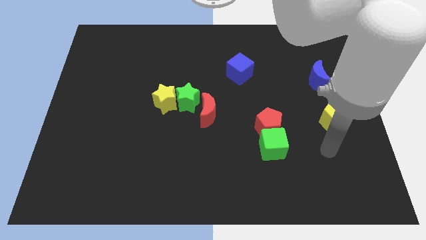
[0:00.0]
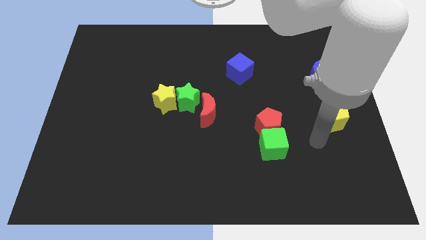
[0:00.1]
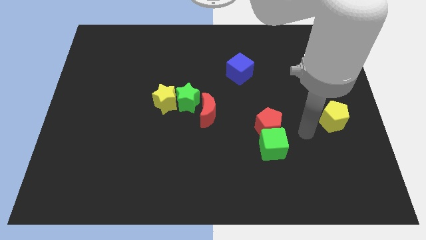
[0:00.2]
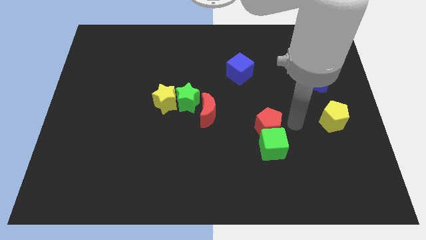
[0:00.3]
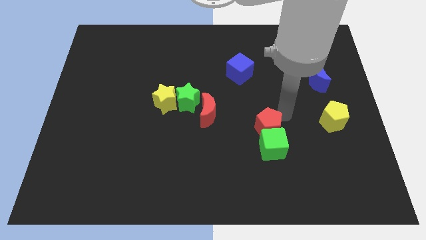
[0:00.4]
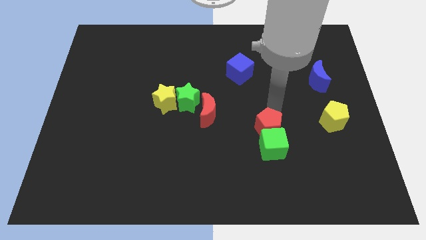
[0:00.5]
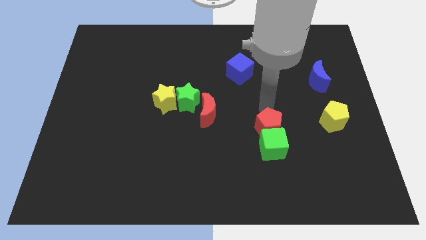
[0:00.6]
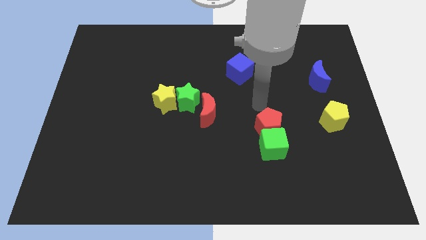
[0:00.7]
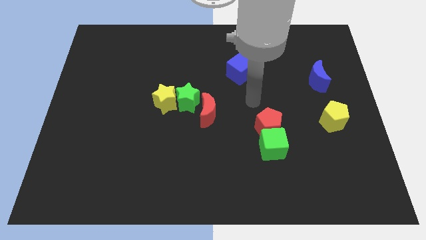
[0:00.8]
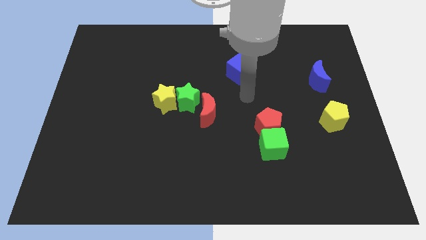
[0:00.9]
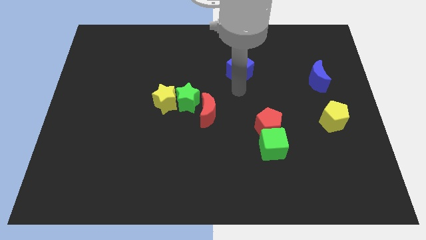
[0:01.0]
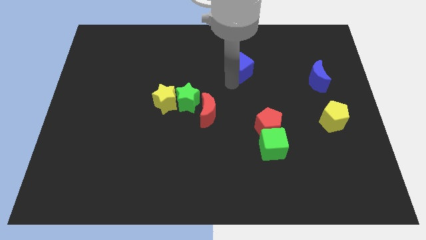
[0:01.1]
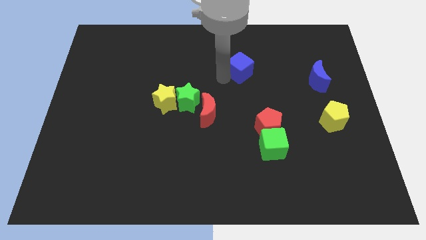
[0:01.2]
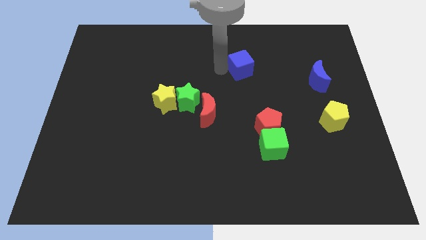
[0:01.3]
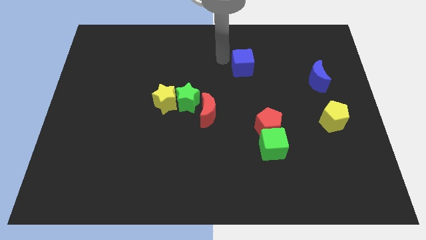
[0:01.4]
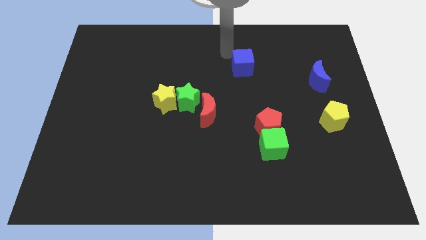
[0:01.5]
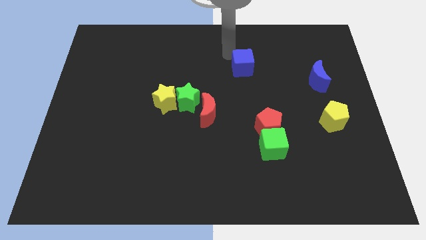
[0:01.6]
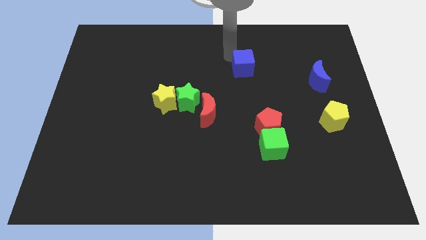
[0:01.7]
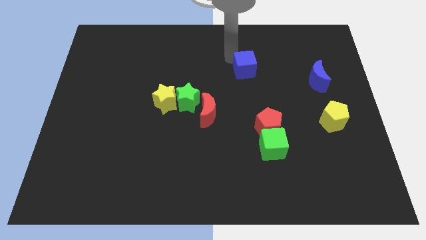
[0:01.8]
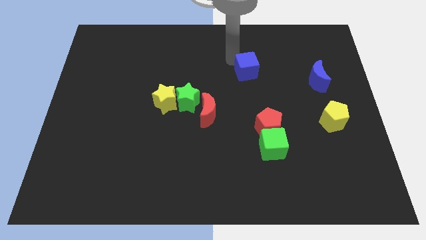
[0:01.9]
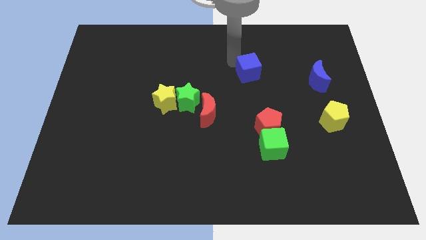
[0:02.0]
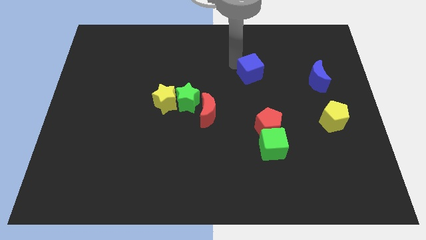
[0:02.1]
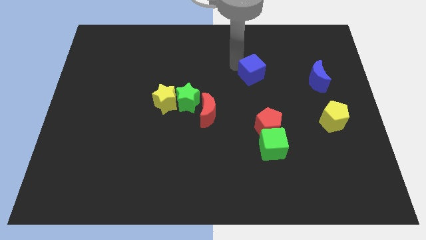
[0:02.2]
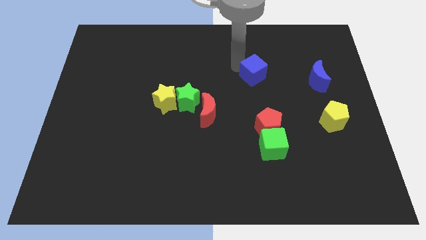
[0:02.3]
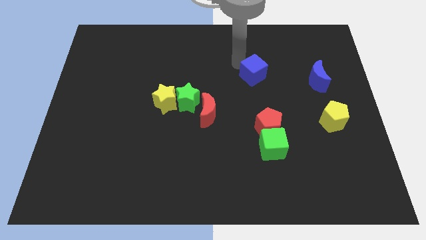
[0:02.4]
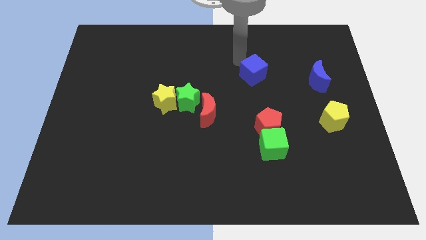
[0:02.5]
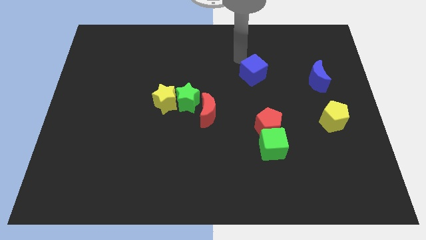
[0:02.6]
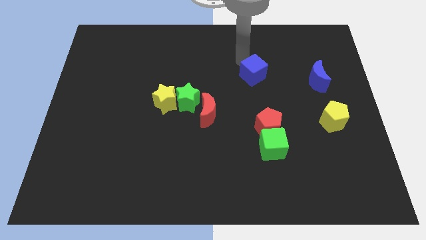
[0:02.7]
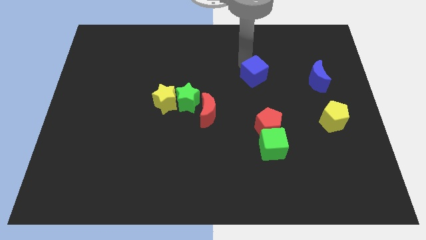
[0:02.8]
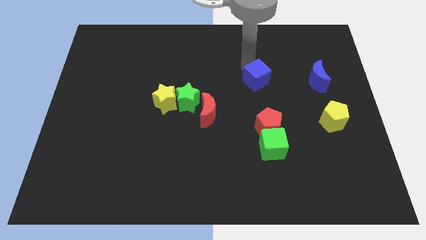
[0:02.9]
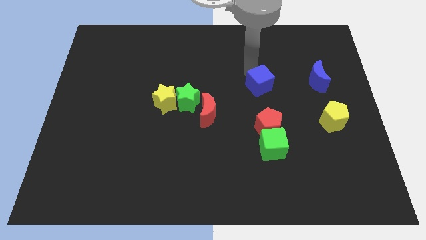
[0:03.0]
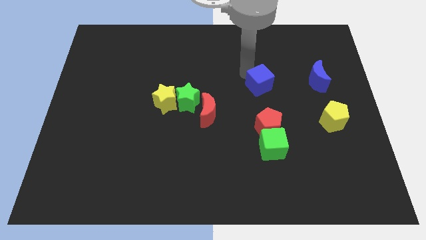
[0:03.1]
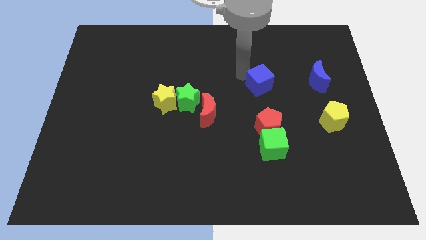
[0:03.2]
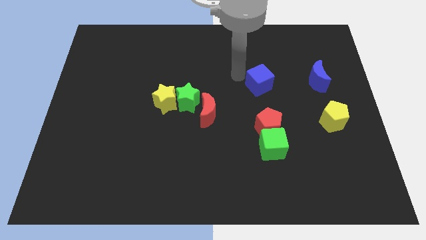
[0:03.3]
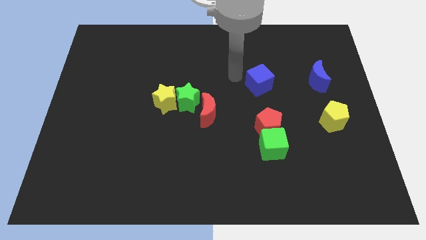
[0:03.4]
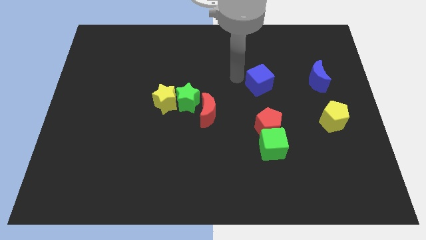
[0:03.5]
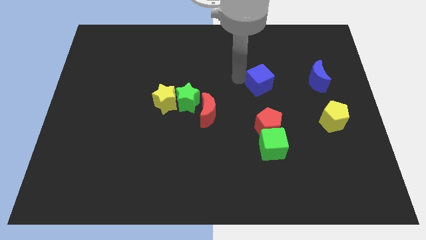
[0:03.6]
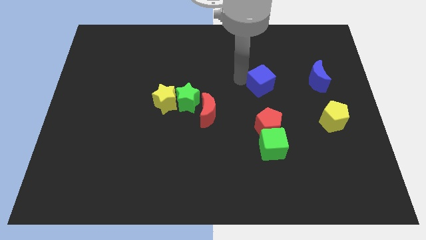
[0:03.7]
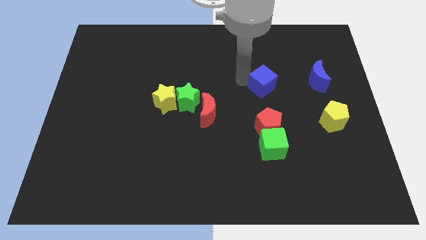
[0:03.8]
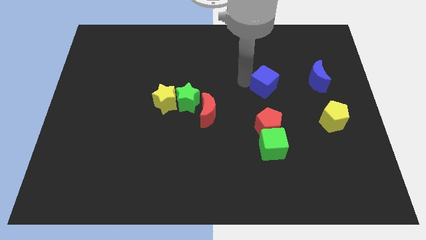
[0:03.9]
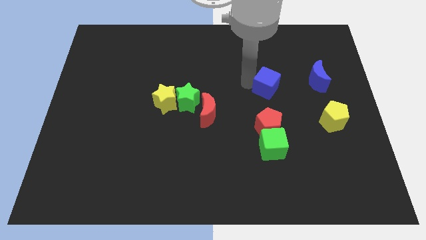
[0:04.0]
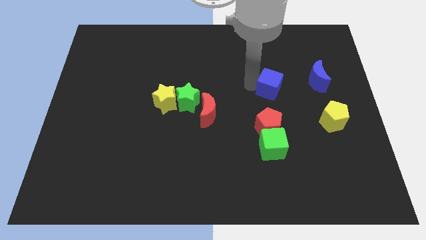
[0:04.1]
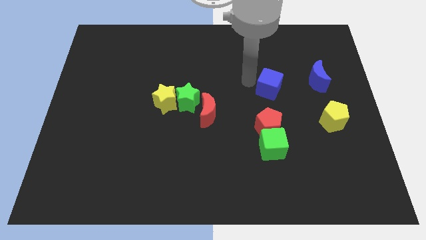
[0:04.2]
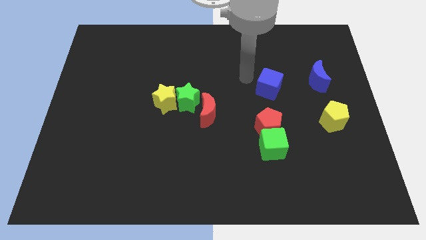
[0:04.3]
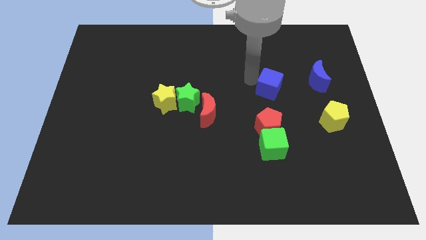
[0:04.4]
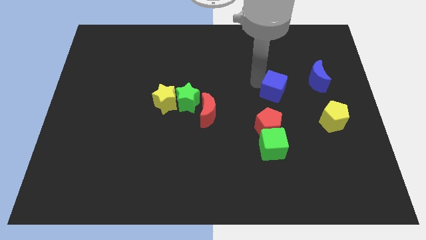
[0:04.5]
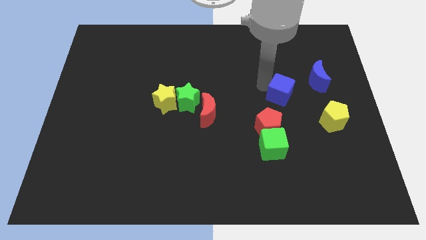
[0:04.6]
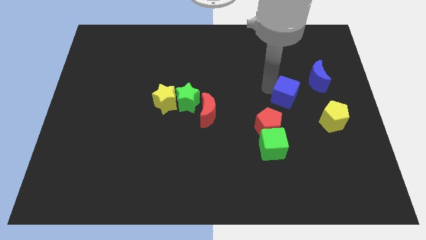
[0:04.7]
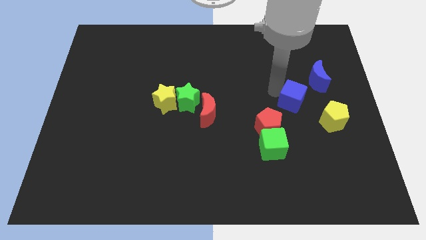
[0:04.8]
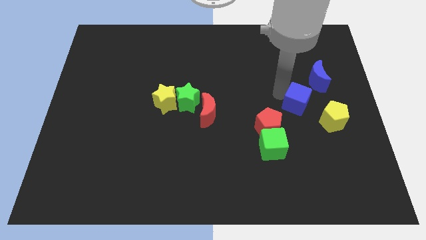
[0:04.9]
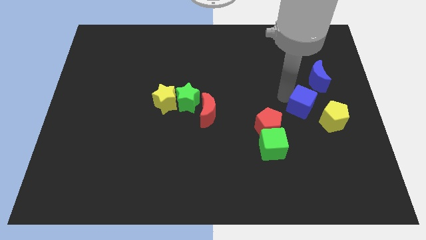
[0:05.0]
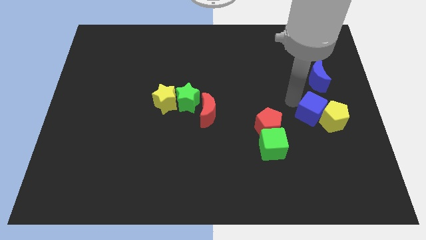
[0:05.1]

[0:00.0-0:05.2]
slide the blue cube to the yellow pentagon

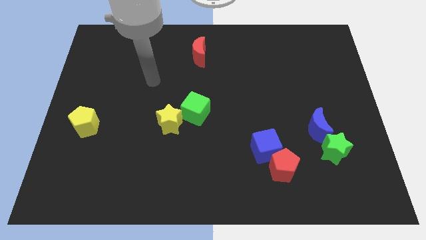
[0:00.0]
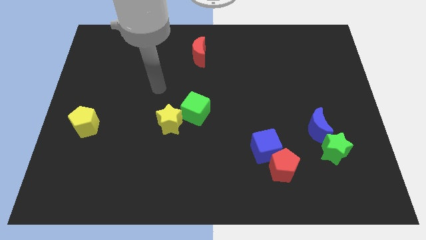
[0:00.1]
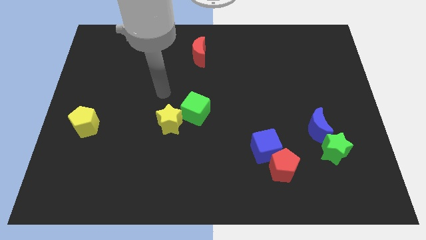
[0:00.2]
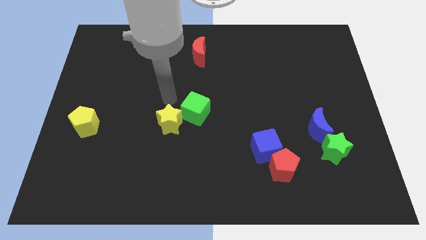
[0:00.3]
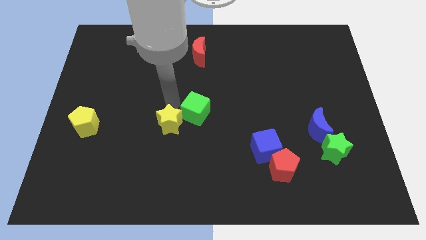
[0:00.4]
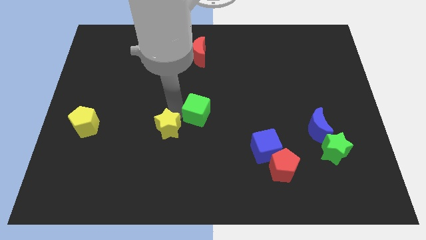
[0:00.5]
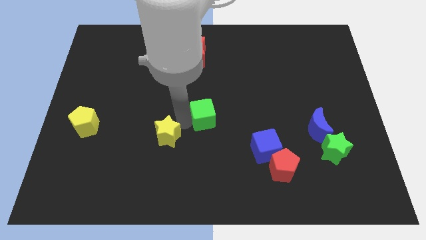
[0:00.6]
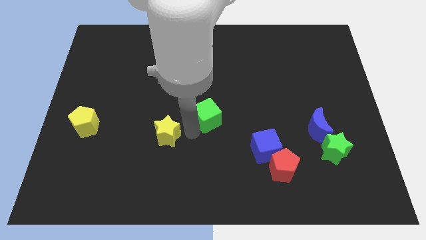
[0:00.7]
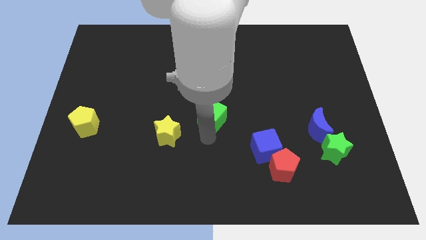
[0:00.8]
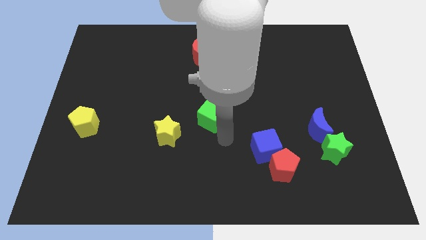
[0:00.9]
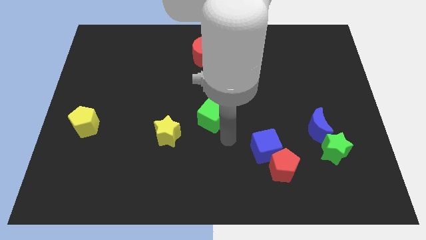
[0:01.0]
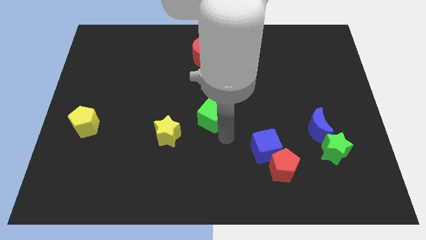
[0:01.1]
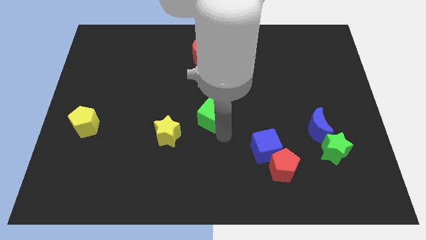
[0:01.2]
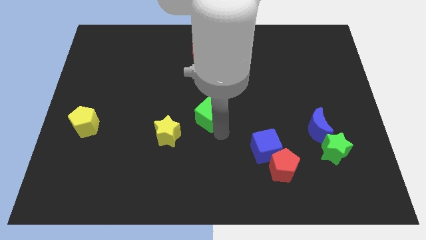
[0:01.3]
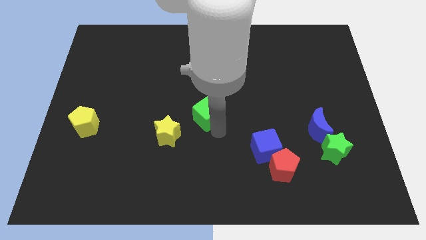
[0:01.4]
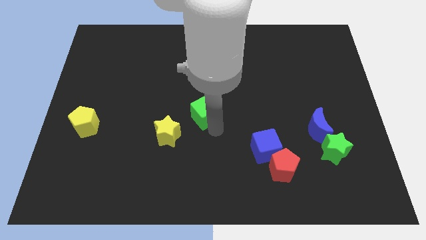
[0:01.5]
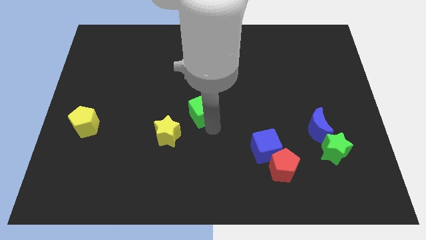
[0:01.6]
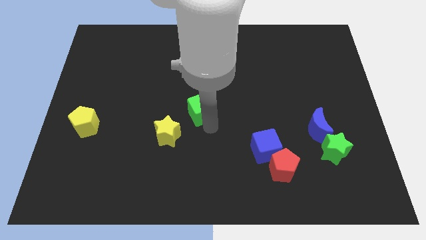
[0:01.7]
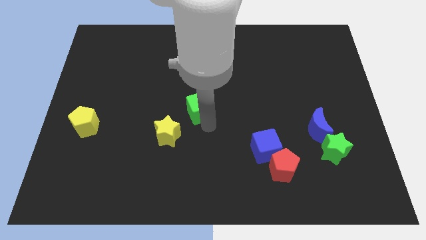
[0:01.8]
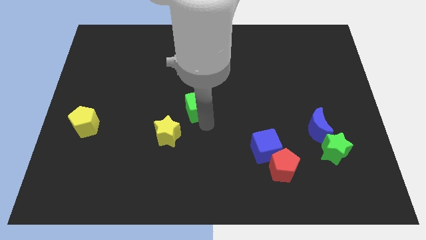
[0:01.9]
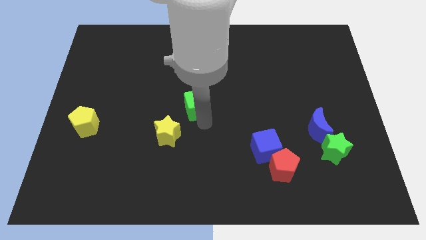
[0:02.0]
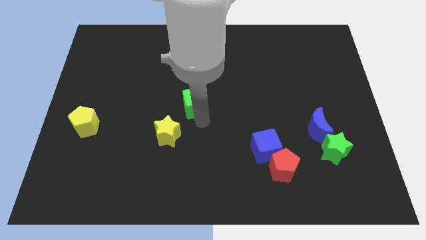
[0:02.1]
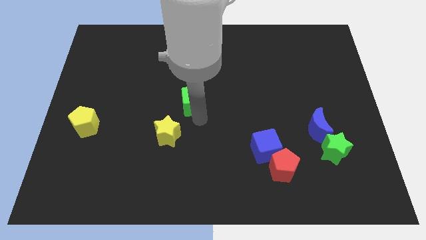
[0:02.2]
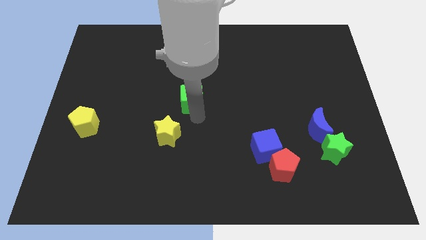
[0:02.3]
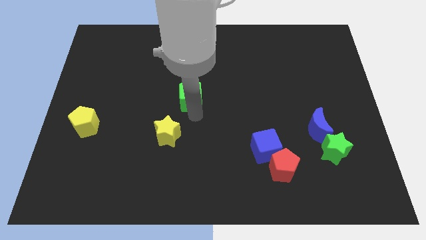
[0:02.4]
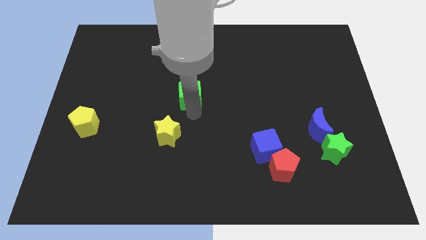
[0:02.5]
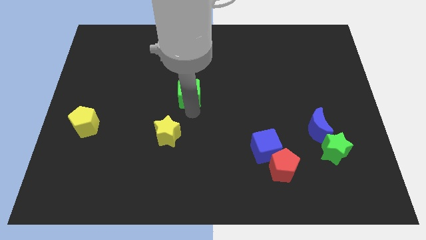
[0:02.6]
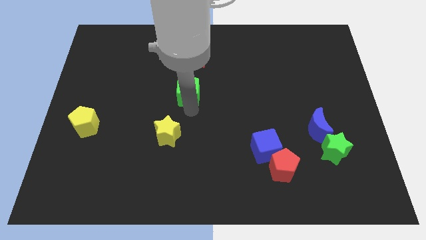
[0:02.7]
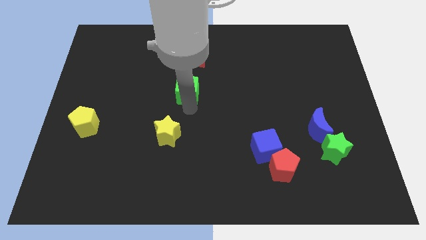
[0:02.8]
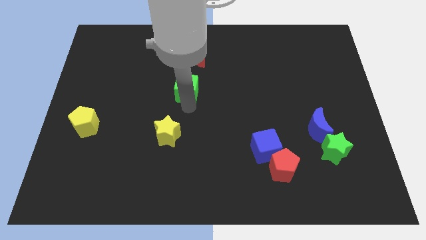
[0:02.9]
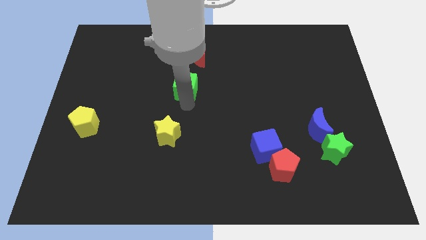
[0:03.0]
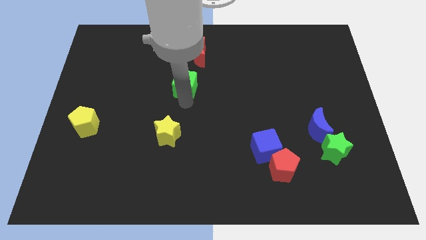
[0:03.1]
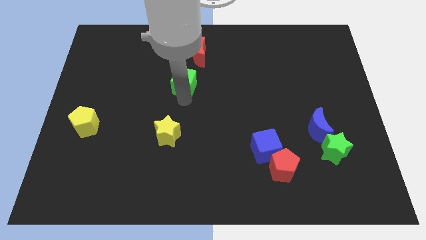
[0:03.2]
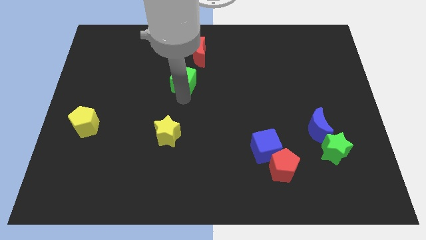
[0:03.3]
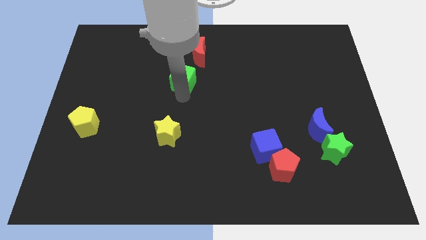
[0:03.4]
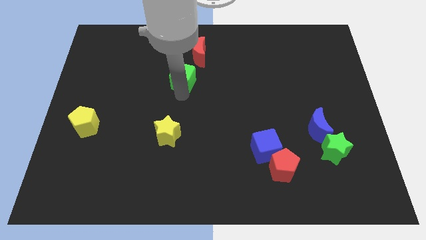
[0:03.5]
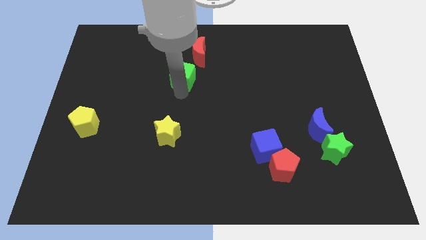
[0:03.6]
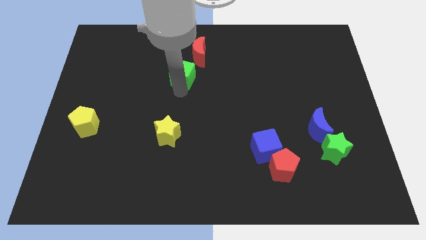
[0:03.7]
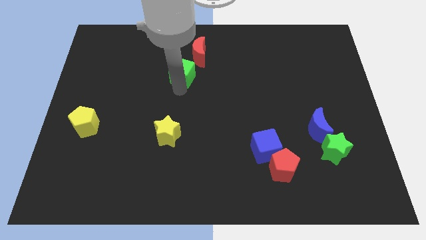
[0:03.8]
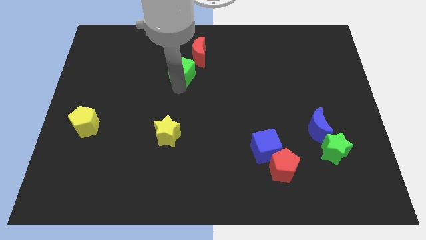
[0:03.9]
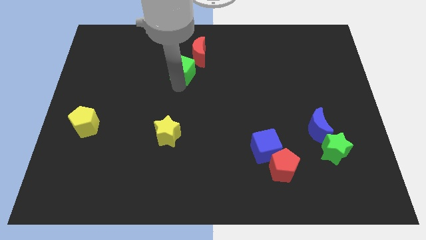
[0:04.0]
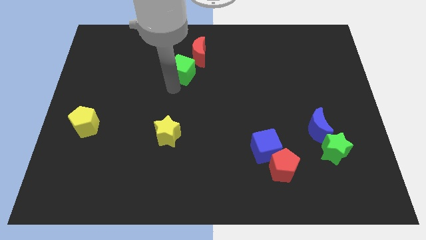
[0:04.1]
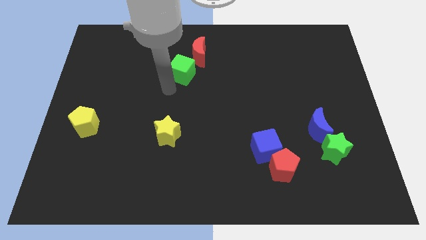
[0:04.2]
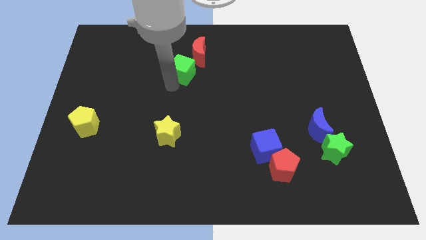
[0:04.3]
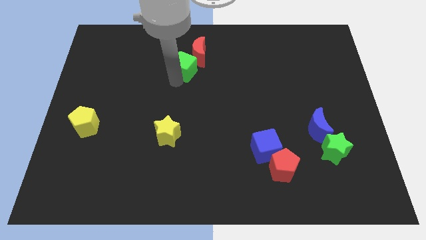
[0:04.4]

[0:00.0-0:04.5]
put the green cube close to the red moon
